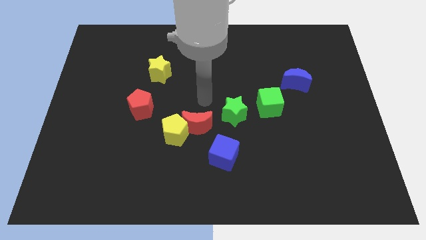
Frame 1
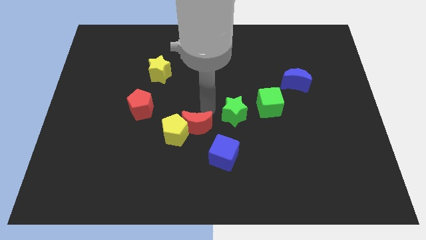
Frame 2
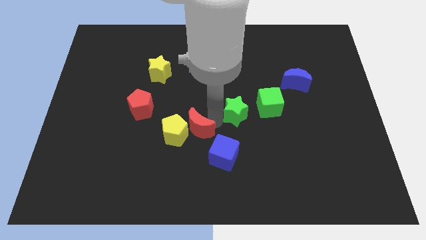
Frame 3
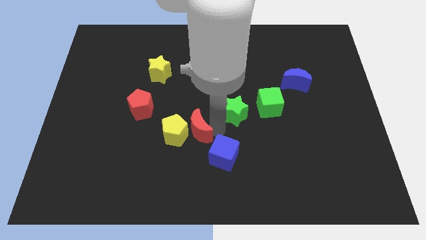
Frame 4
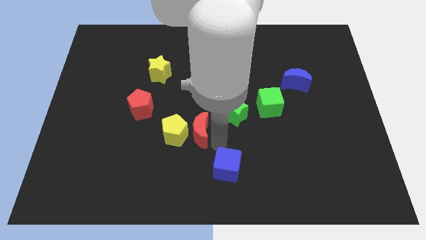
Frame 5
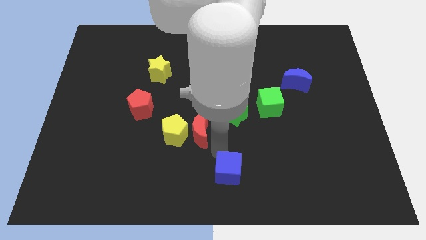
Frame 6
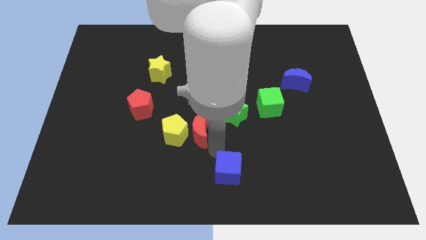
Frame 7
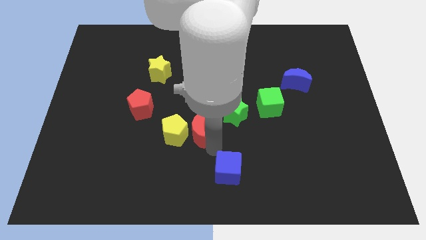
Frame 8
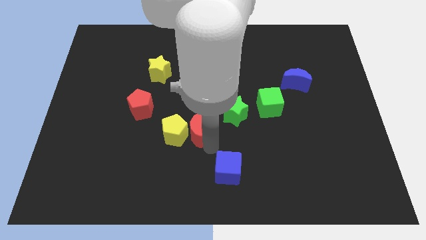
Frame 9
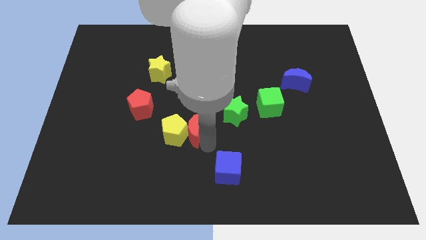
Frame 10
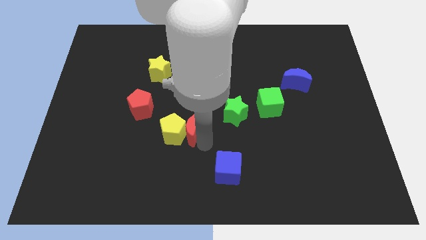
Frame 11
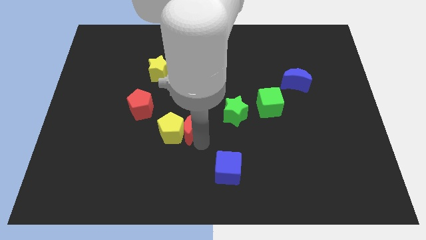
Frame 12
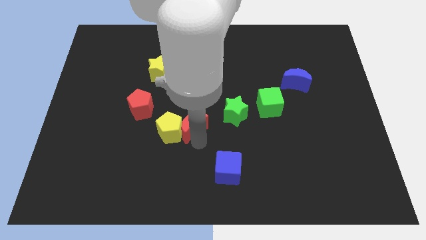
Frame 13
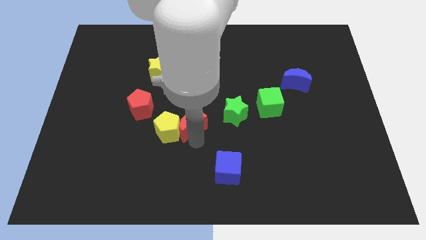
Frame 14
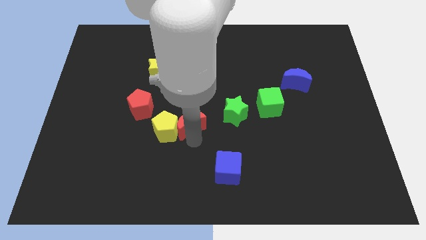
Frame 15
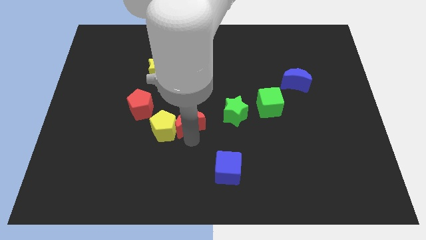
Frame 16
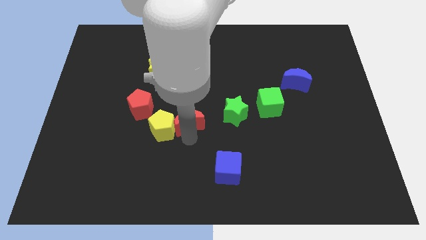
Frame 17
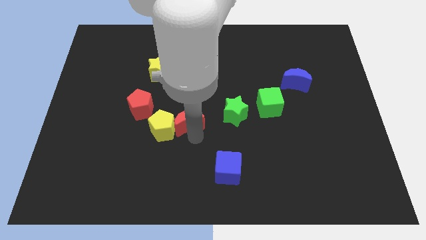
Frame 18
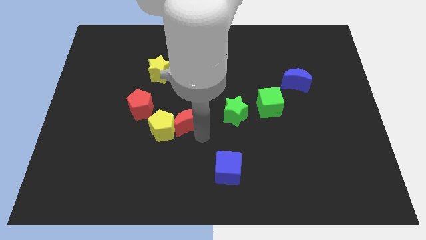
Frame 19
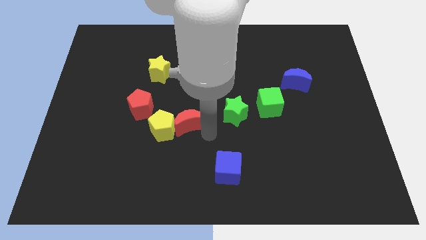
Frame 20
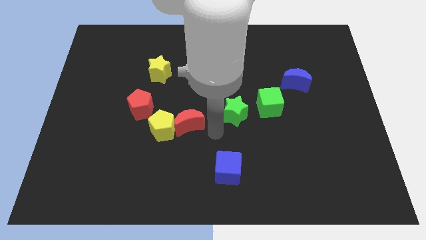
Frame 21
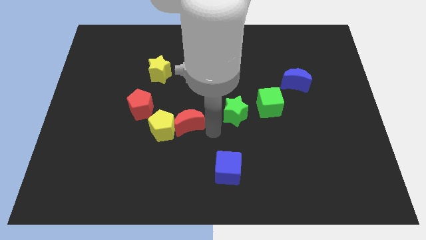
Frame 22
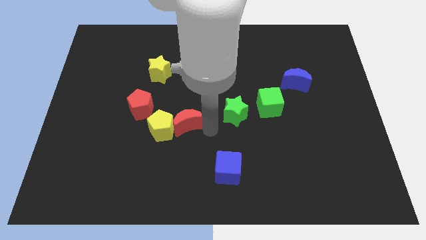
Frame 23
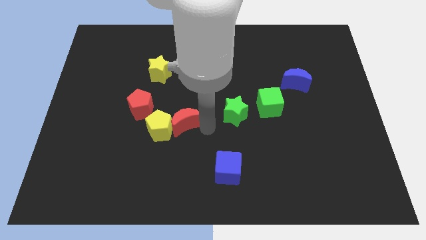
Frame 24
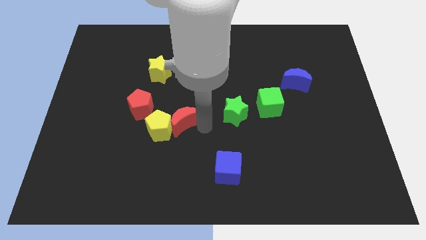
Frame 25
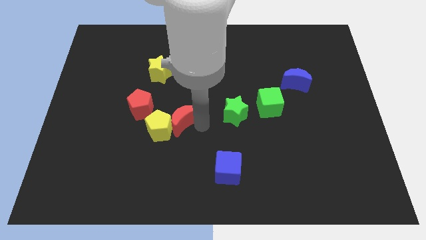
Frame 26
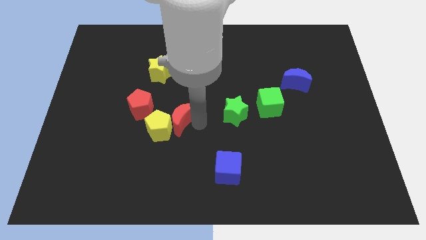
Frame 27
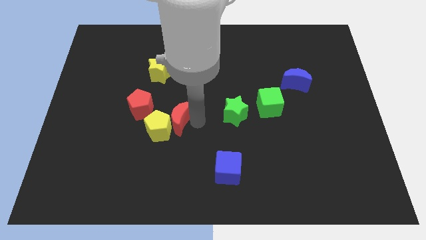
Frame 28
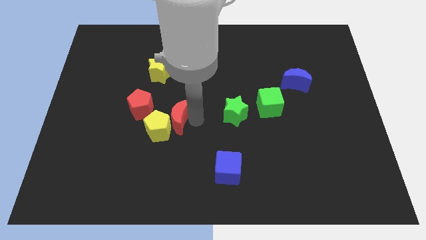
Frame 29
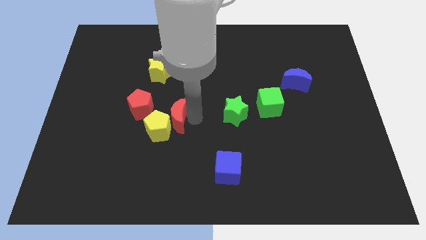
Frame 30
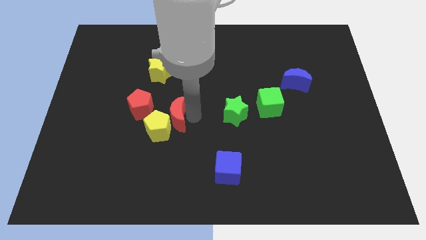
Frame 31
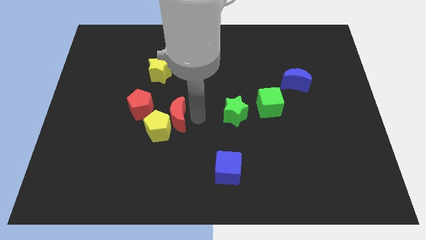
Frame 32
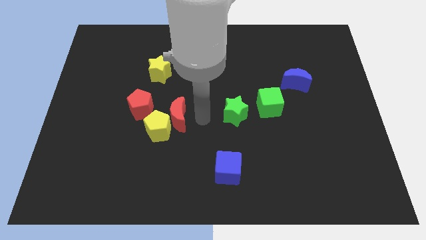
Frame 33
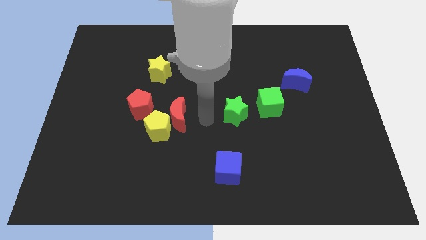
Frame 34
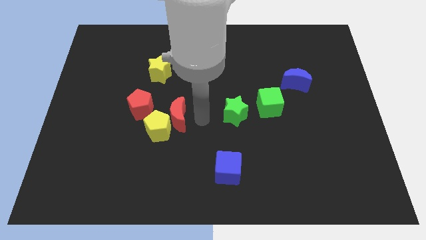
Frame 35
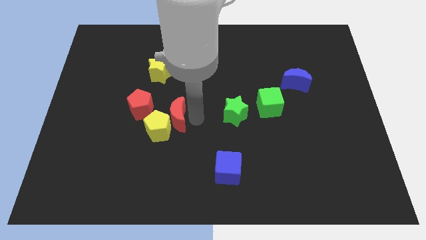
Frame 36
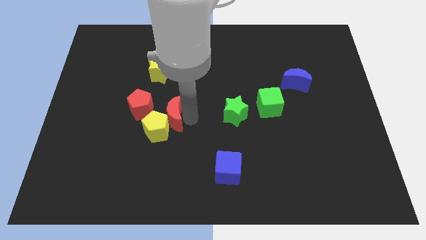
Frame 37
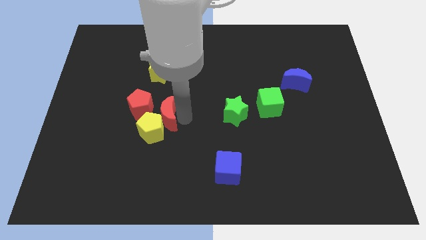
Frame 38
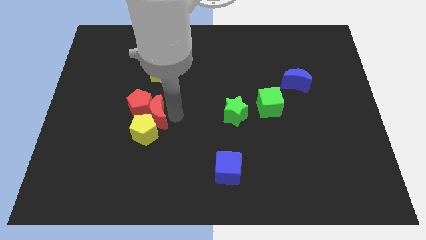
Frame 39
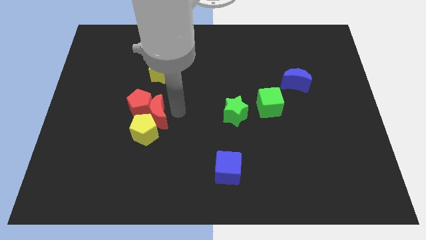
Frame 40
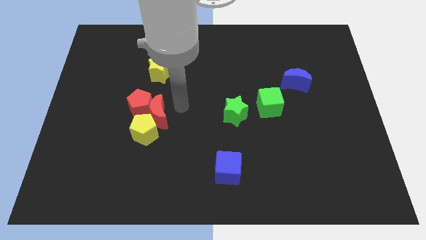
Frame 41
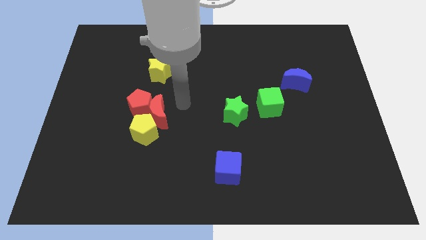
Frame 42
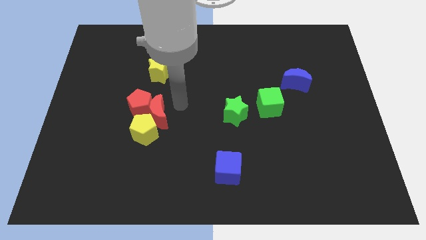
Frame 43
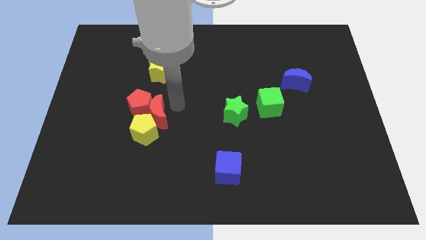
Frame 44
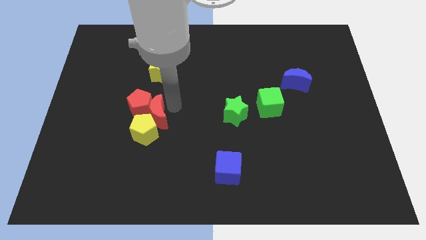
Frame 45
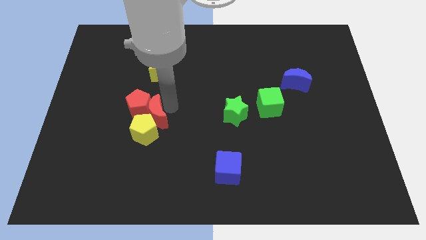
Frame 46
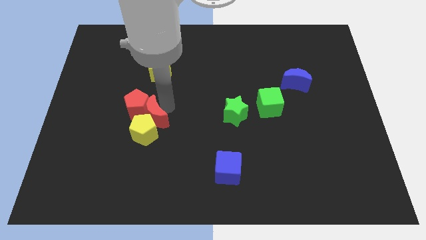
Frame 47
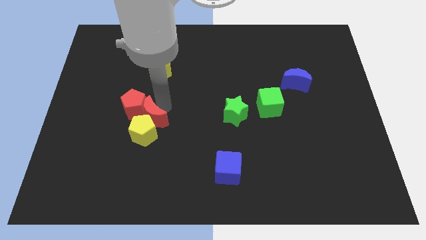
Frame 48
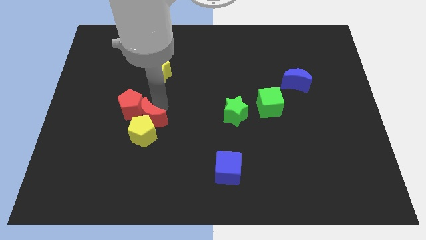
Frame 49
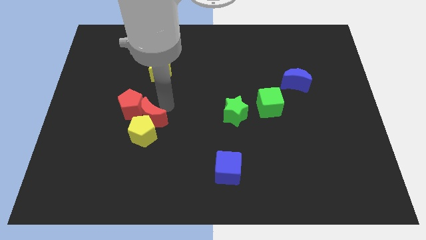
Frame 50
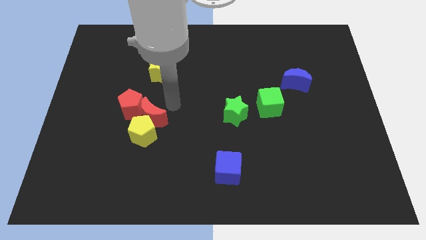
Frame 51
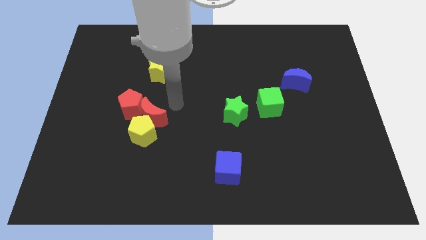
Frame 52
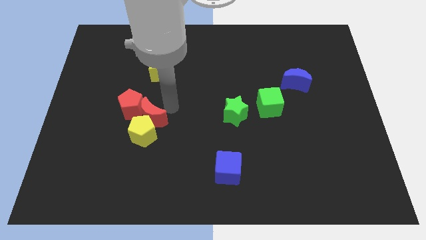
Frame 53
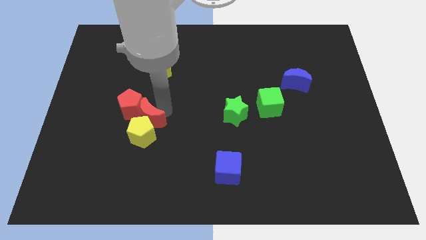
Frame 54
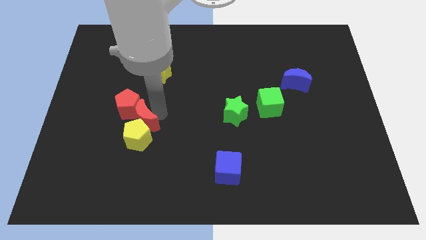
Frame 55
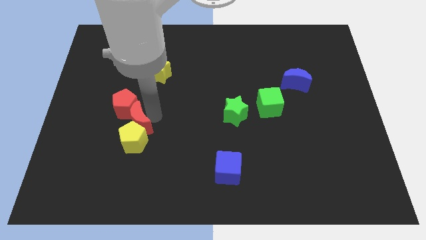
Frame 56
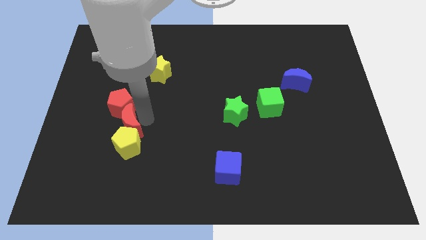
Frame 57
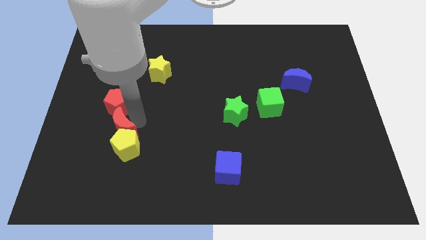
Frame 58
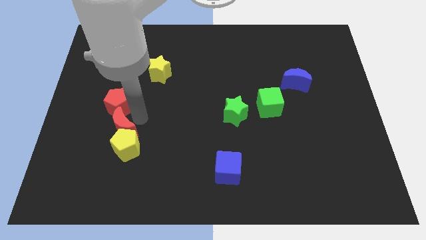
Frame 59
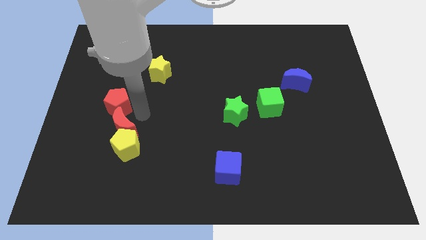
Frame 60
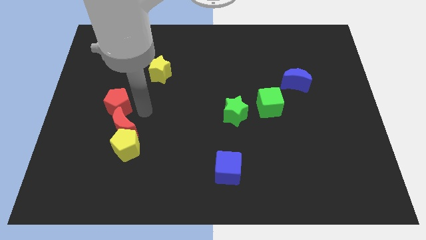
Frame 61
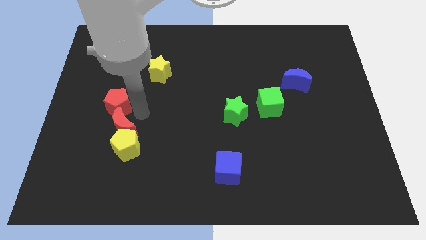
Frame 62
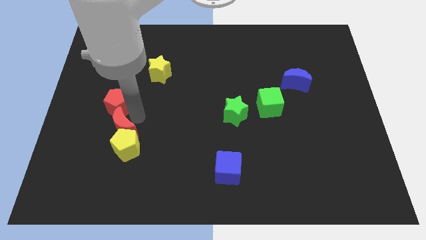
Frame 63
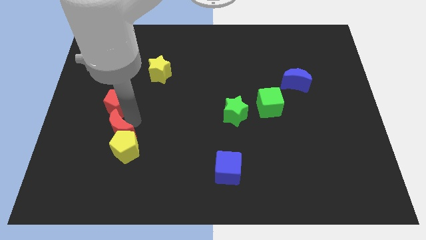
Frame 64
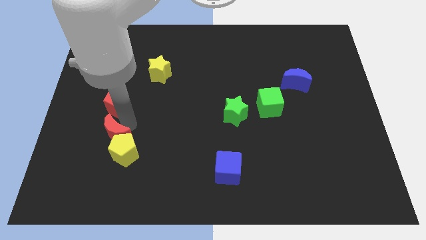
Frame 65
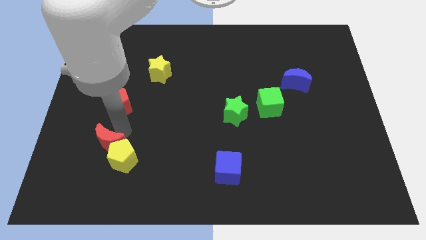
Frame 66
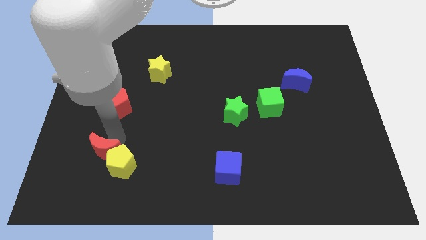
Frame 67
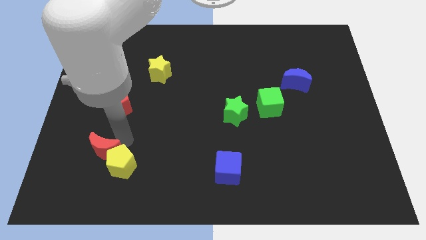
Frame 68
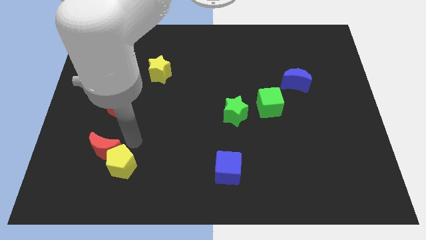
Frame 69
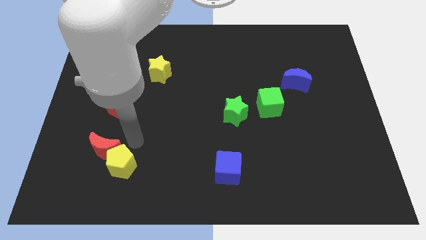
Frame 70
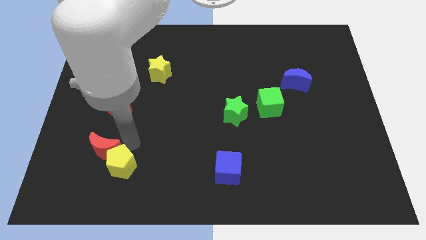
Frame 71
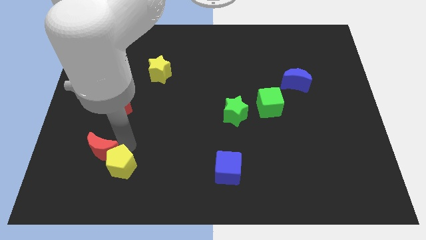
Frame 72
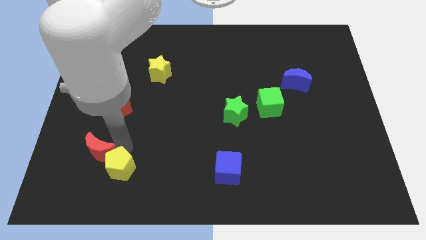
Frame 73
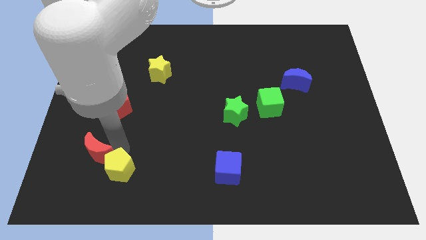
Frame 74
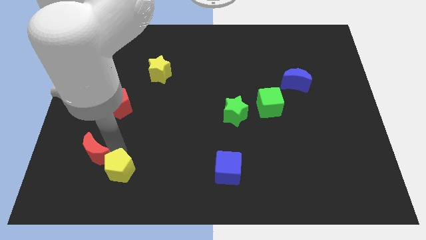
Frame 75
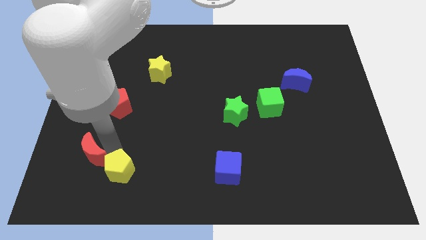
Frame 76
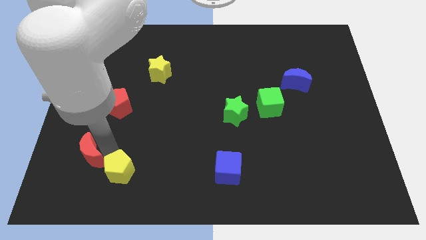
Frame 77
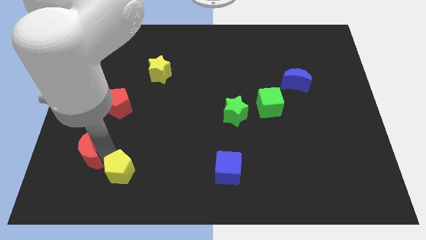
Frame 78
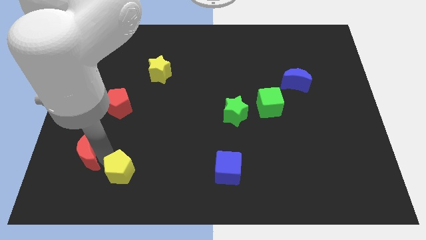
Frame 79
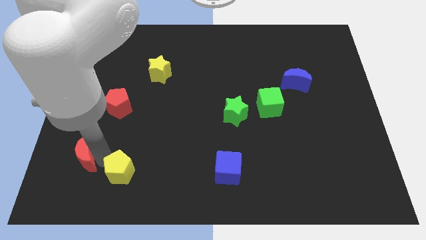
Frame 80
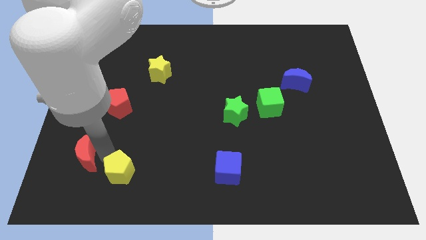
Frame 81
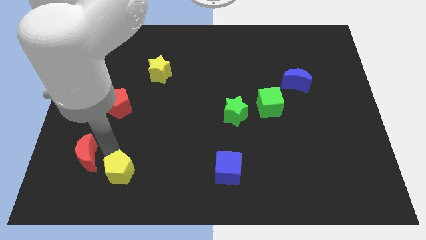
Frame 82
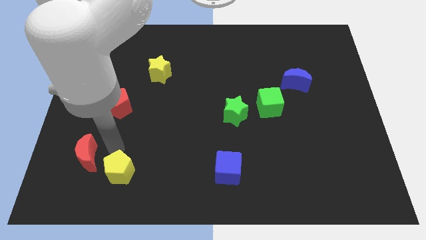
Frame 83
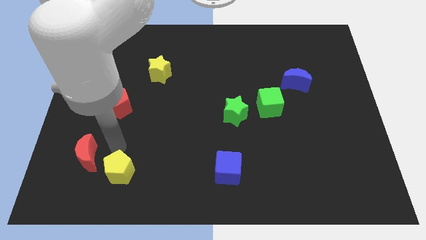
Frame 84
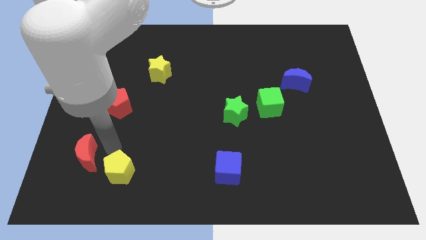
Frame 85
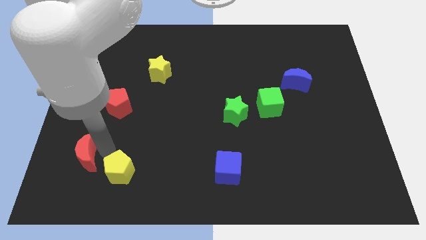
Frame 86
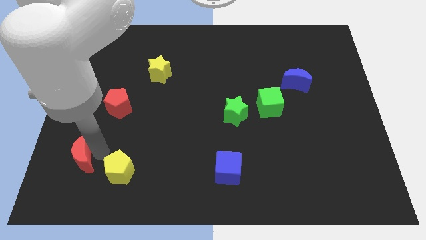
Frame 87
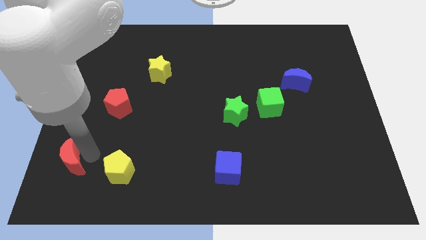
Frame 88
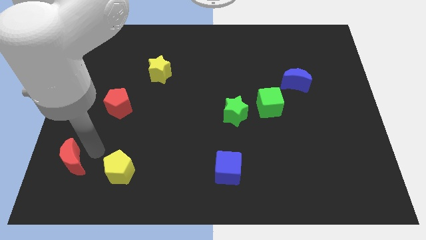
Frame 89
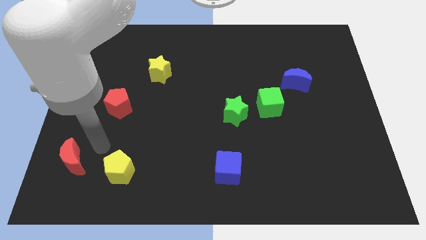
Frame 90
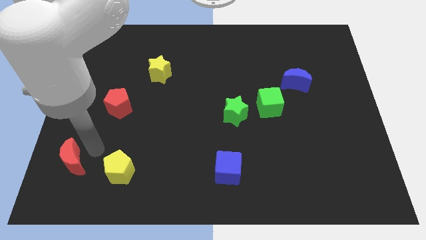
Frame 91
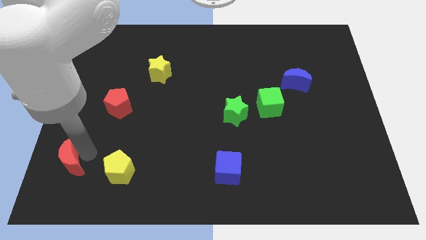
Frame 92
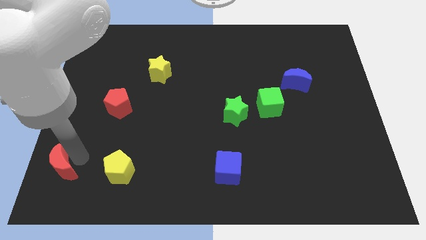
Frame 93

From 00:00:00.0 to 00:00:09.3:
move the red moon to the bottom left corner
